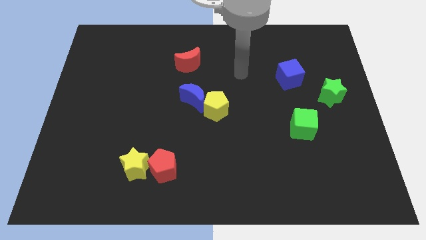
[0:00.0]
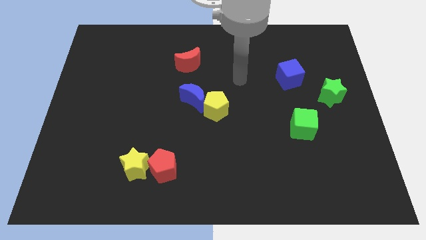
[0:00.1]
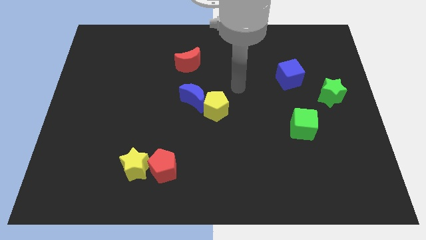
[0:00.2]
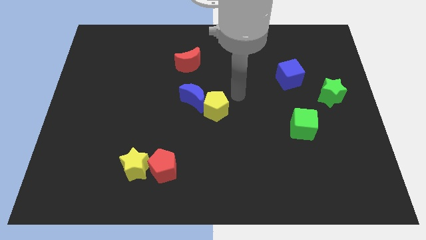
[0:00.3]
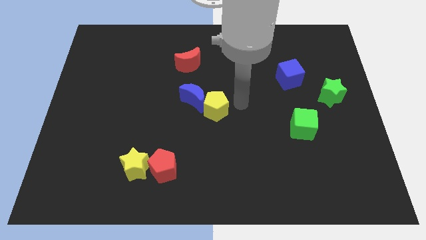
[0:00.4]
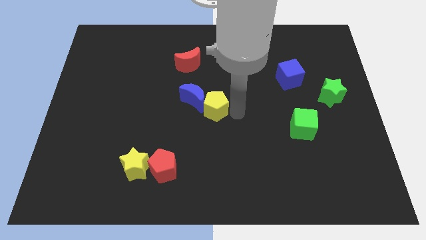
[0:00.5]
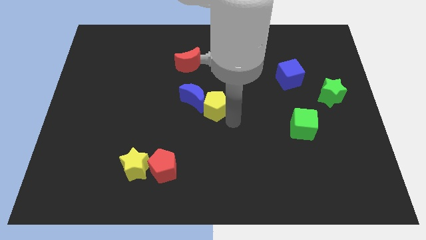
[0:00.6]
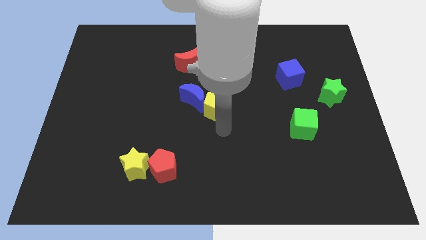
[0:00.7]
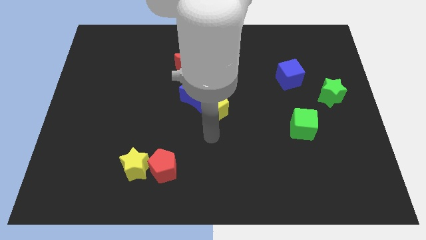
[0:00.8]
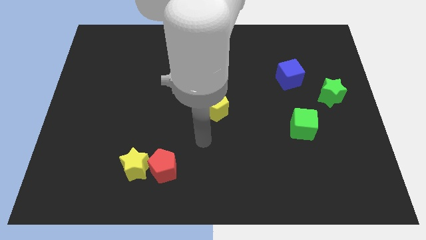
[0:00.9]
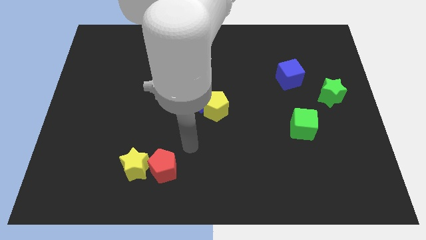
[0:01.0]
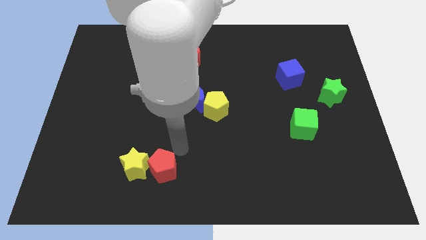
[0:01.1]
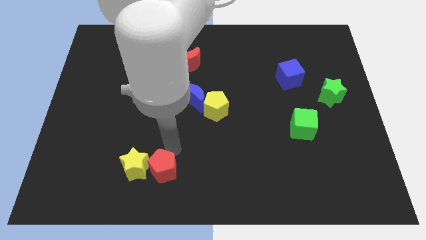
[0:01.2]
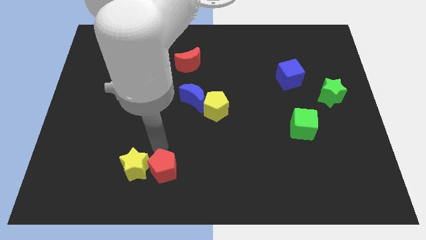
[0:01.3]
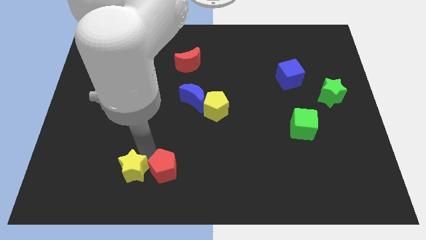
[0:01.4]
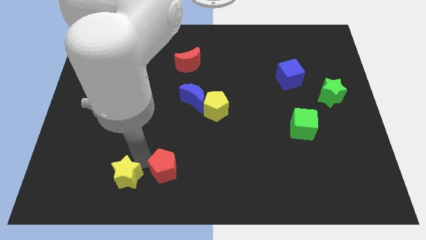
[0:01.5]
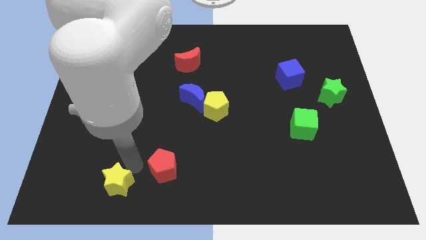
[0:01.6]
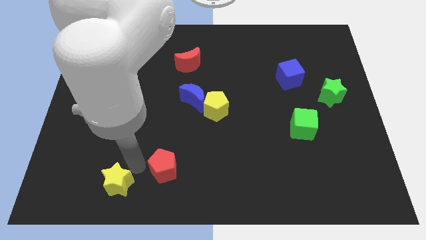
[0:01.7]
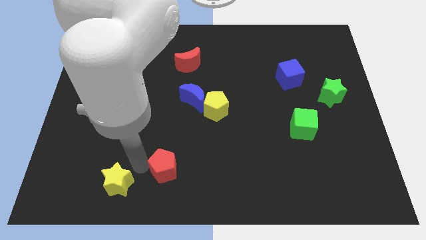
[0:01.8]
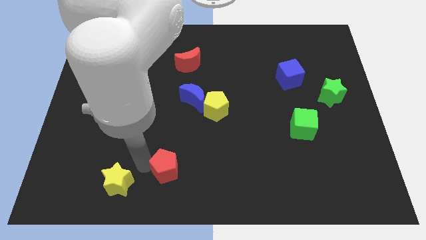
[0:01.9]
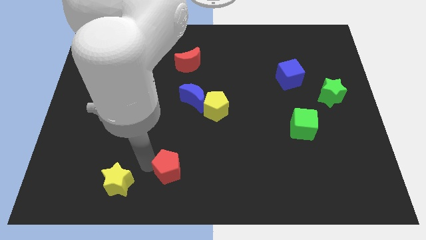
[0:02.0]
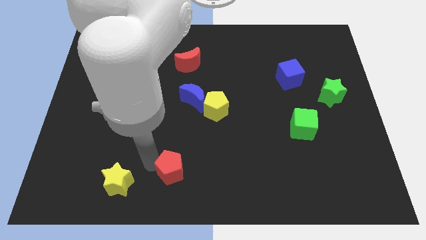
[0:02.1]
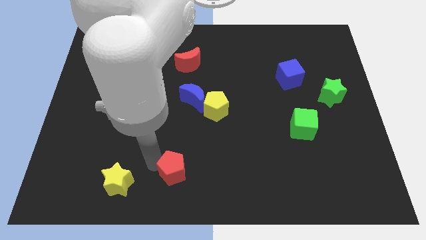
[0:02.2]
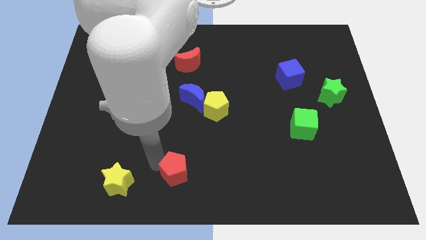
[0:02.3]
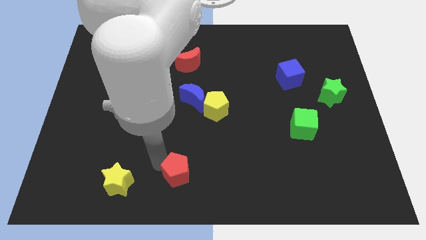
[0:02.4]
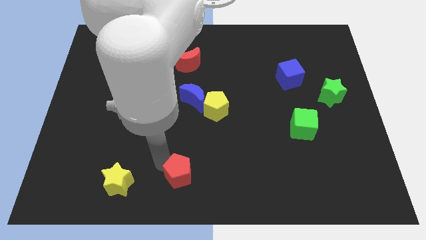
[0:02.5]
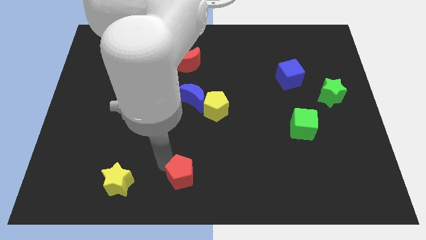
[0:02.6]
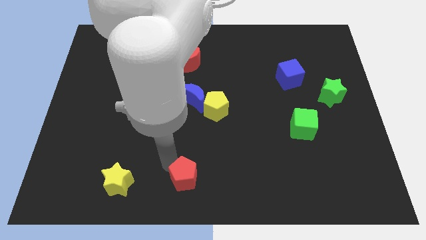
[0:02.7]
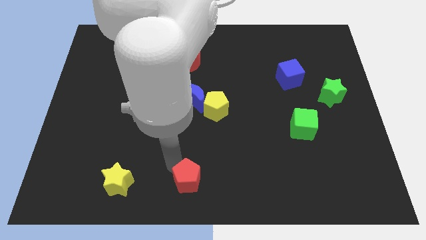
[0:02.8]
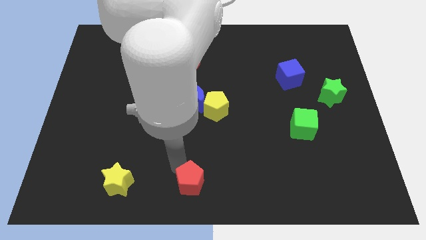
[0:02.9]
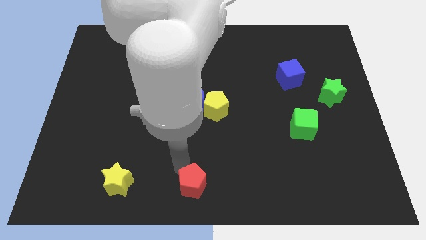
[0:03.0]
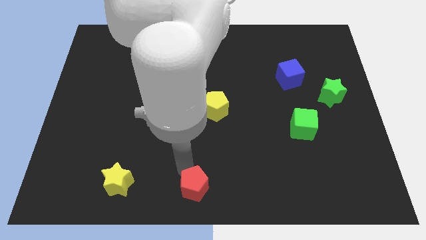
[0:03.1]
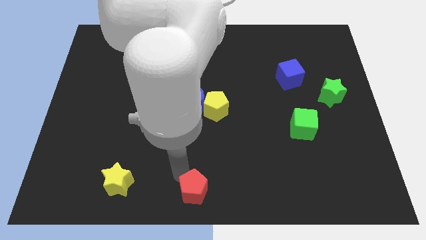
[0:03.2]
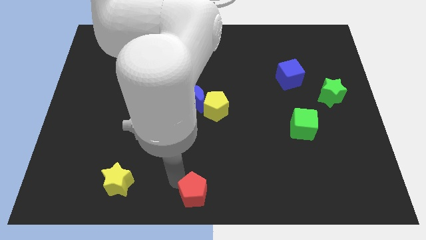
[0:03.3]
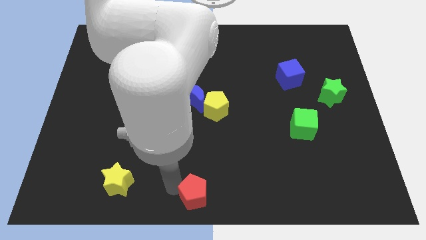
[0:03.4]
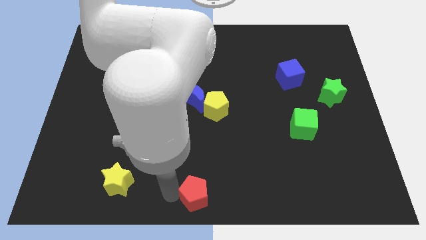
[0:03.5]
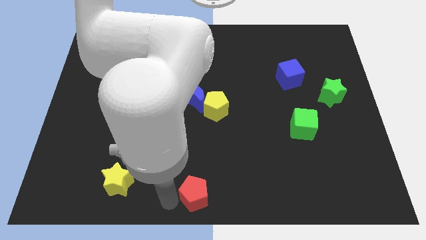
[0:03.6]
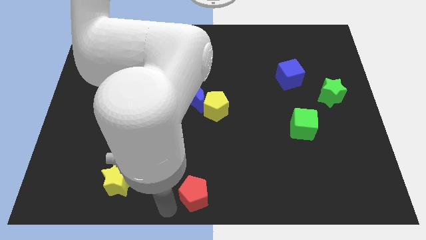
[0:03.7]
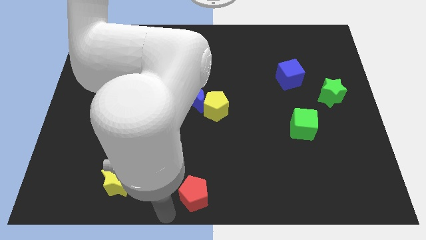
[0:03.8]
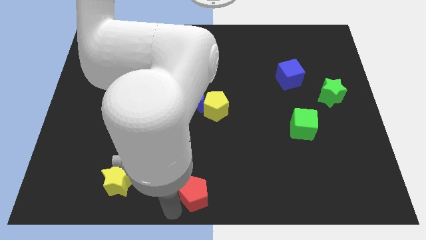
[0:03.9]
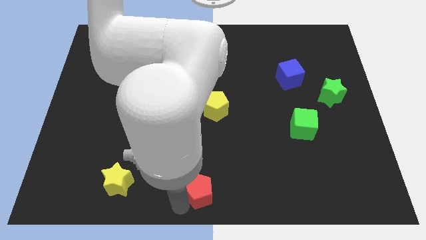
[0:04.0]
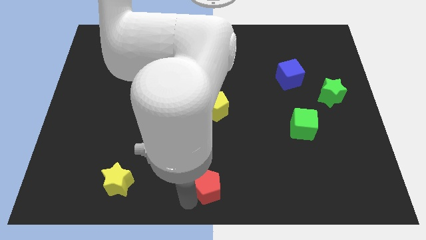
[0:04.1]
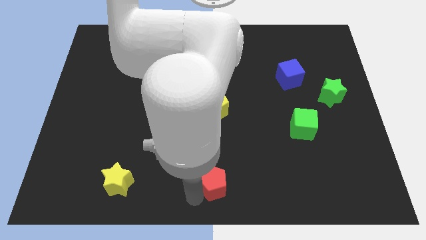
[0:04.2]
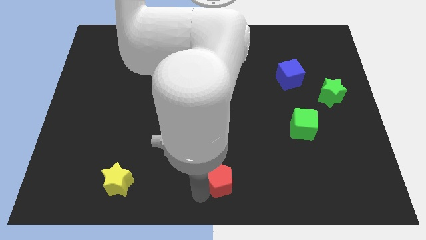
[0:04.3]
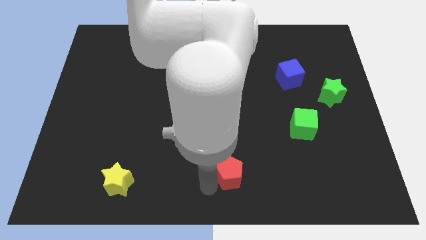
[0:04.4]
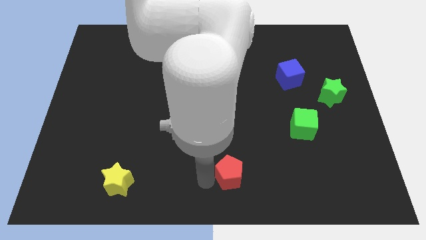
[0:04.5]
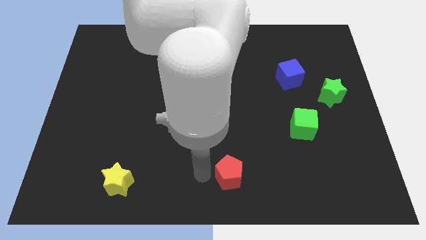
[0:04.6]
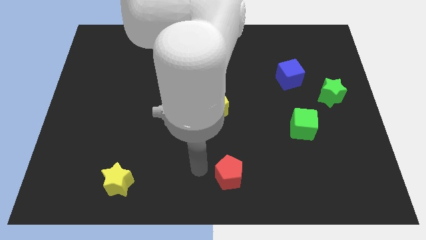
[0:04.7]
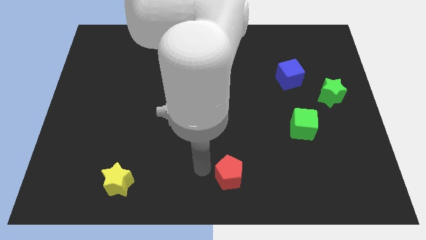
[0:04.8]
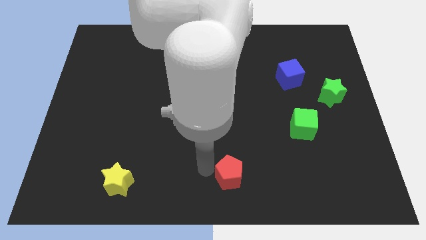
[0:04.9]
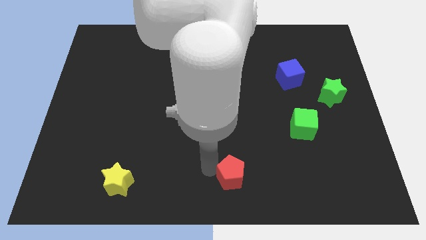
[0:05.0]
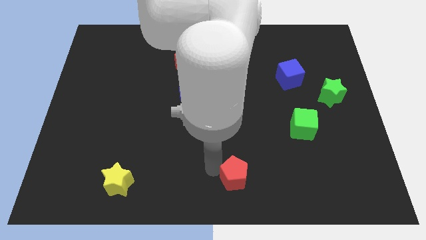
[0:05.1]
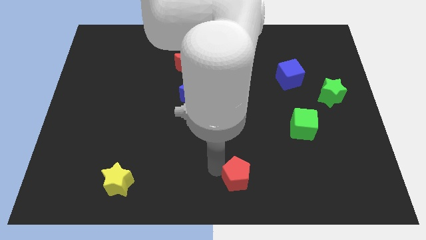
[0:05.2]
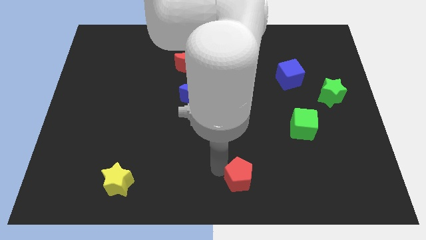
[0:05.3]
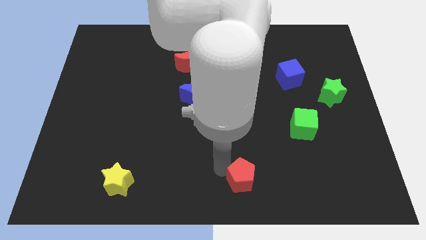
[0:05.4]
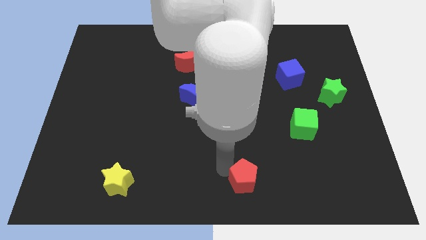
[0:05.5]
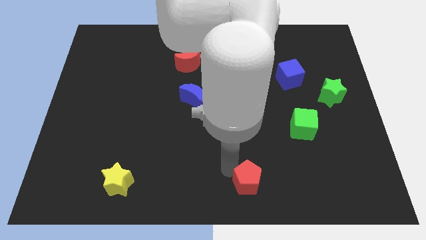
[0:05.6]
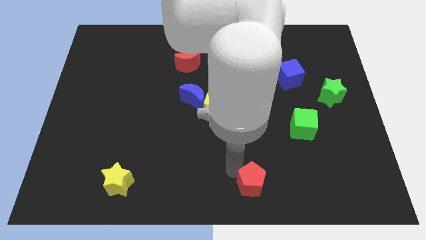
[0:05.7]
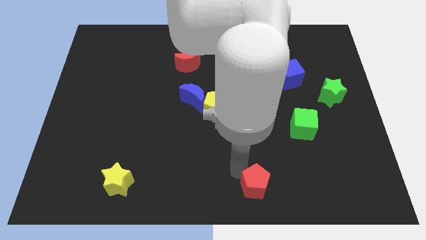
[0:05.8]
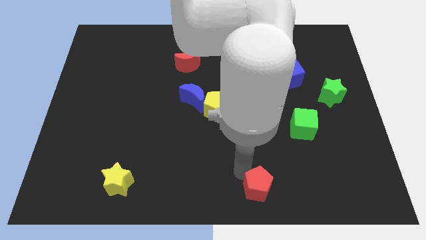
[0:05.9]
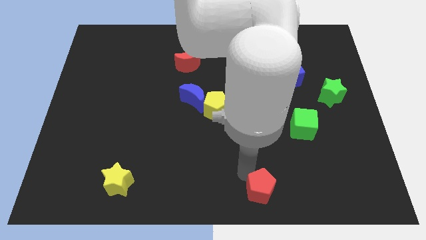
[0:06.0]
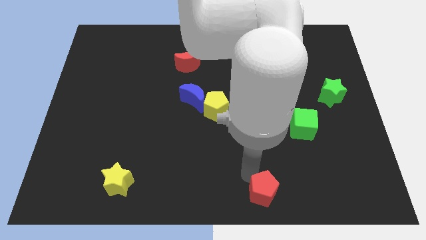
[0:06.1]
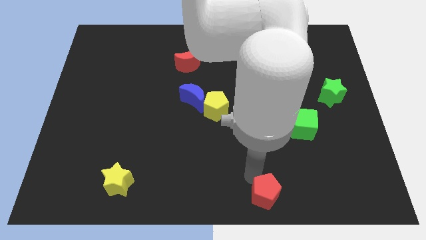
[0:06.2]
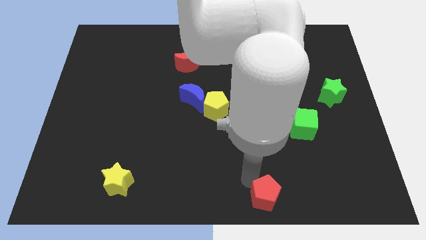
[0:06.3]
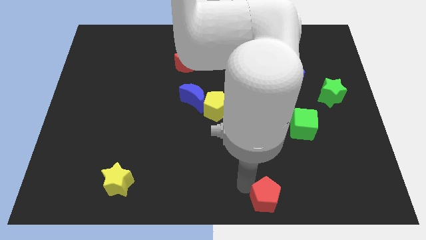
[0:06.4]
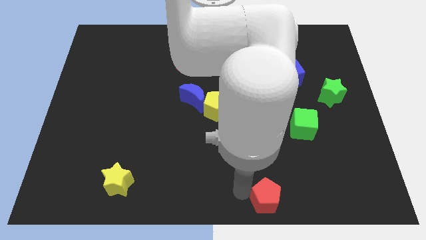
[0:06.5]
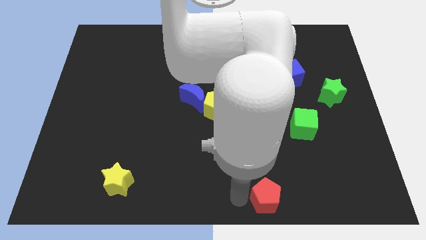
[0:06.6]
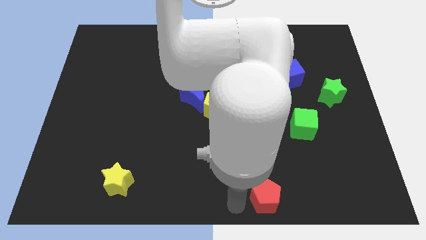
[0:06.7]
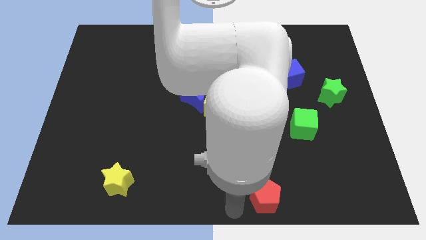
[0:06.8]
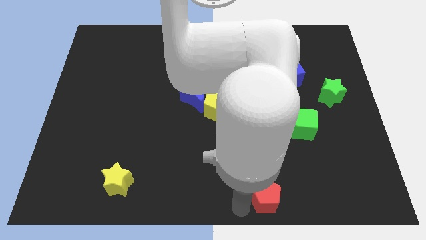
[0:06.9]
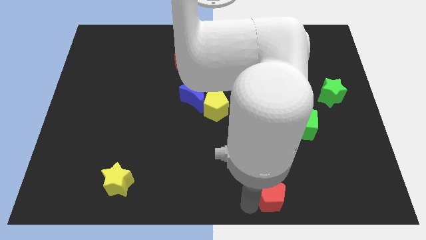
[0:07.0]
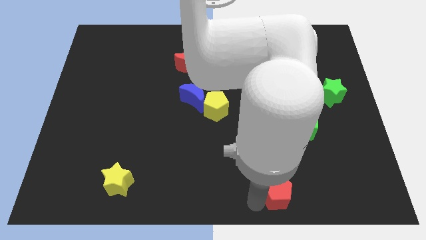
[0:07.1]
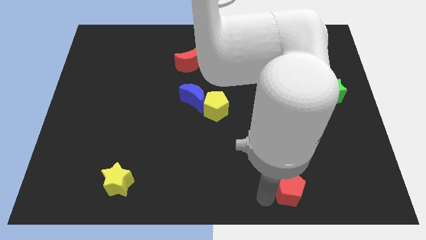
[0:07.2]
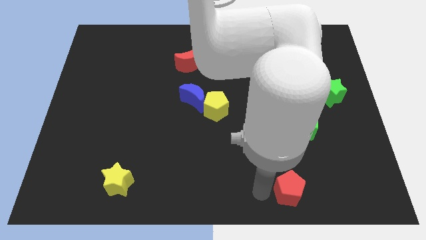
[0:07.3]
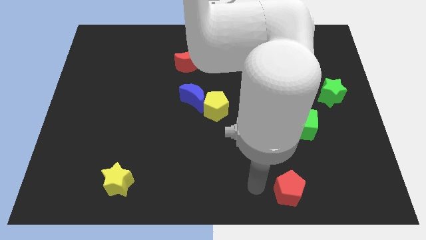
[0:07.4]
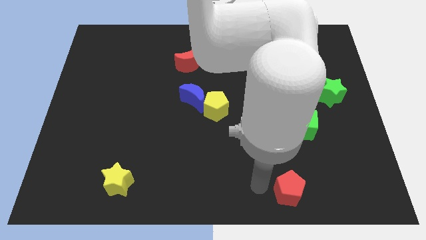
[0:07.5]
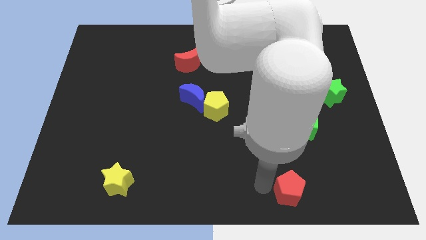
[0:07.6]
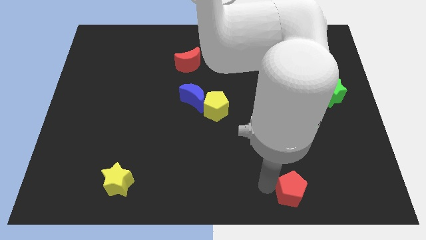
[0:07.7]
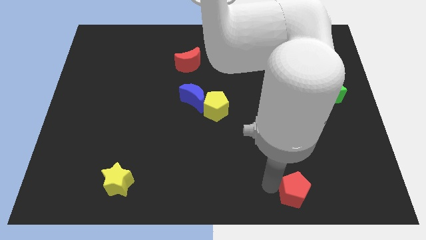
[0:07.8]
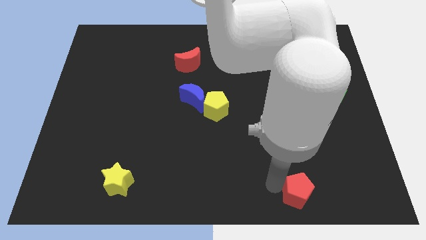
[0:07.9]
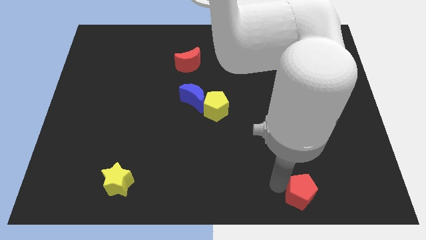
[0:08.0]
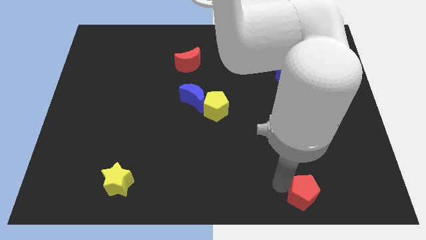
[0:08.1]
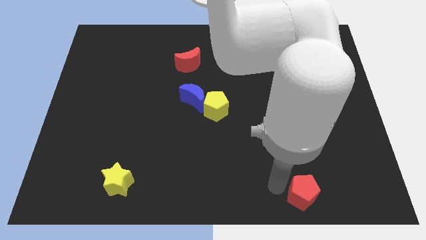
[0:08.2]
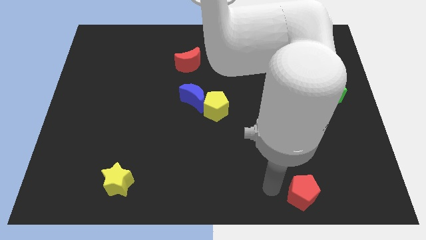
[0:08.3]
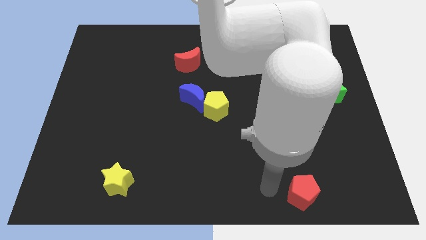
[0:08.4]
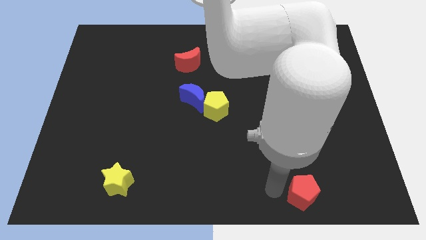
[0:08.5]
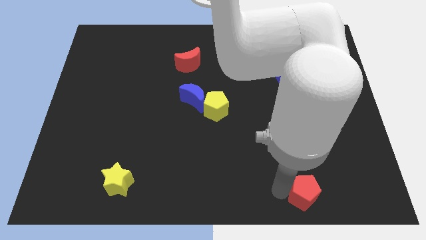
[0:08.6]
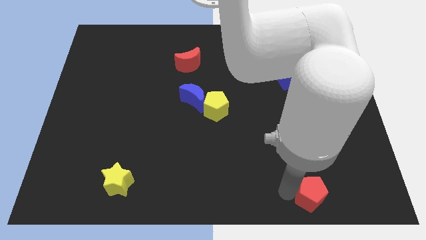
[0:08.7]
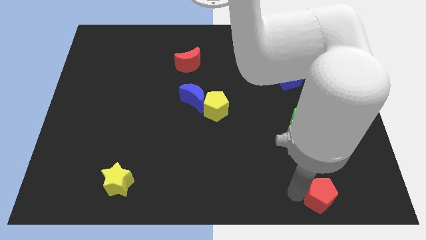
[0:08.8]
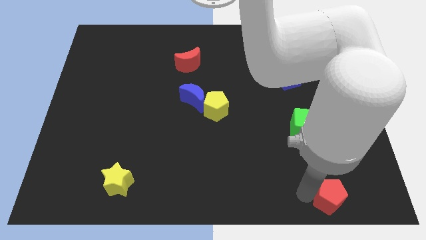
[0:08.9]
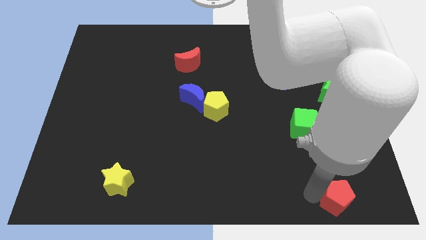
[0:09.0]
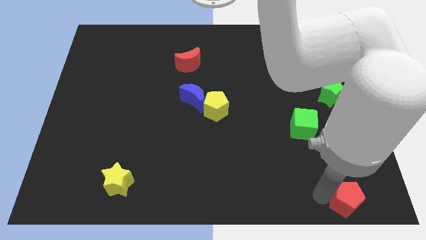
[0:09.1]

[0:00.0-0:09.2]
put the red pentagon to the bottom right corner
